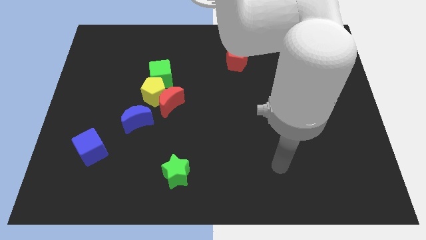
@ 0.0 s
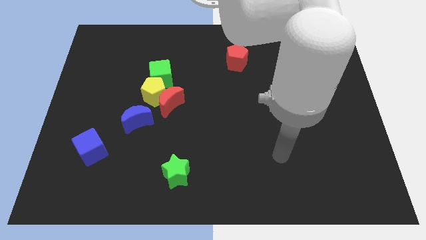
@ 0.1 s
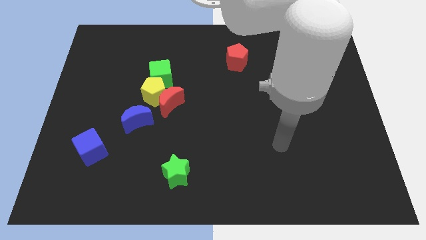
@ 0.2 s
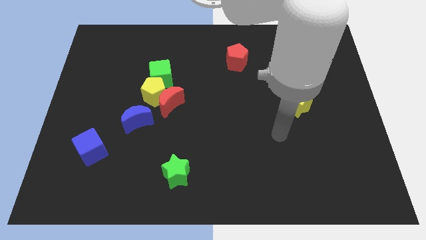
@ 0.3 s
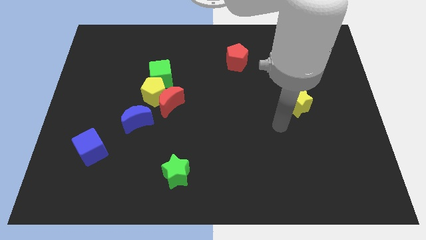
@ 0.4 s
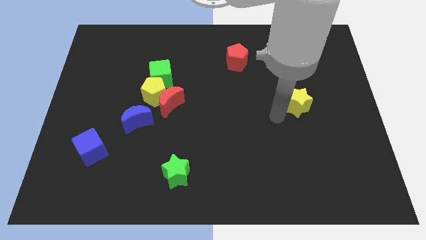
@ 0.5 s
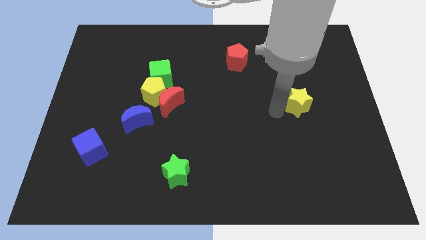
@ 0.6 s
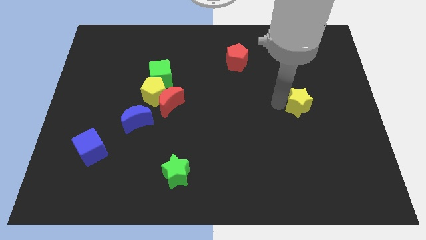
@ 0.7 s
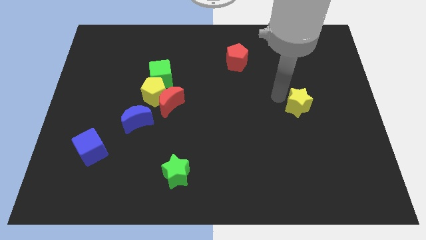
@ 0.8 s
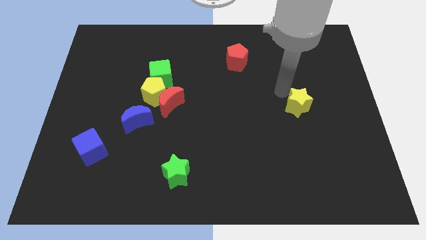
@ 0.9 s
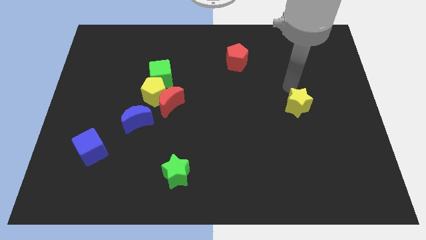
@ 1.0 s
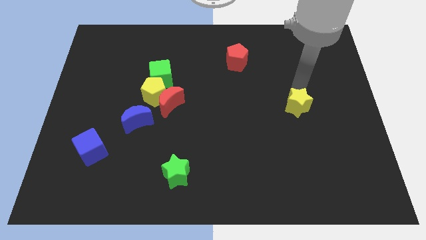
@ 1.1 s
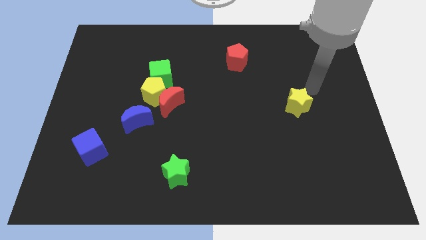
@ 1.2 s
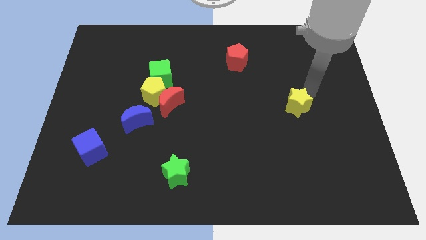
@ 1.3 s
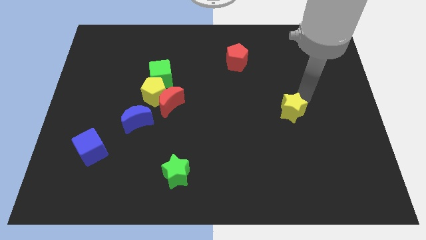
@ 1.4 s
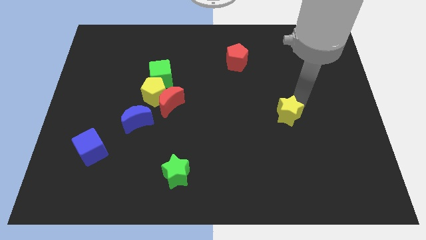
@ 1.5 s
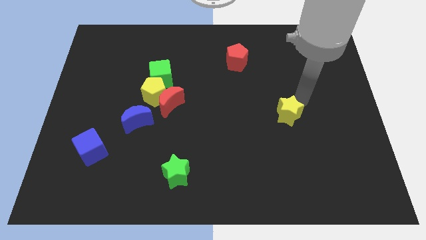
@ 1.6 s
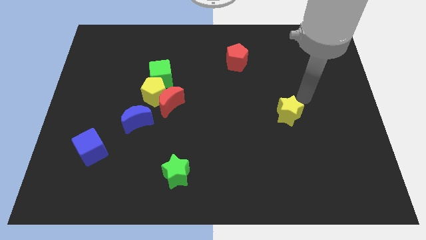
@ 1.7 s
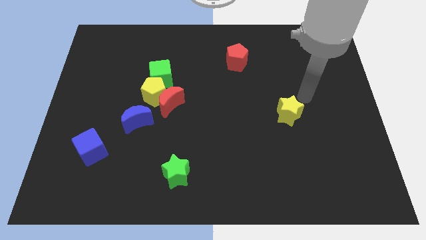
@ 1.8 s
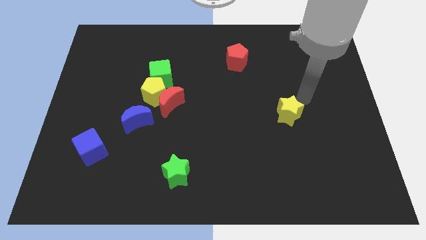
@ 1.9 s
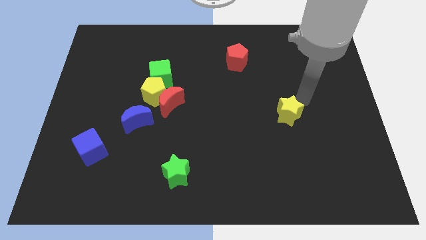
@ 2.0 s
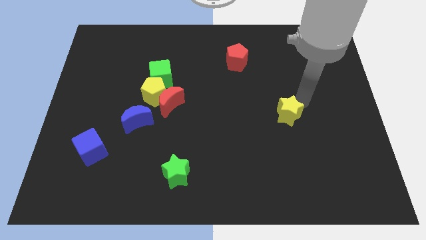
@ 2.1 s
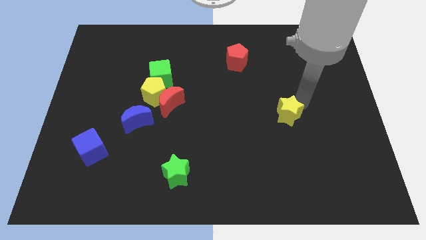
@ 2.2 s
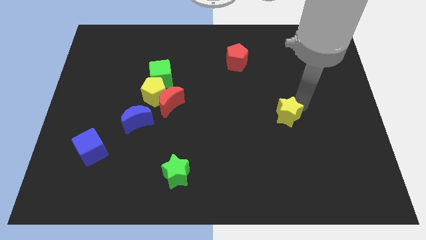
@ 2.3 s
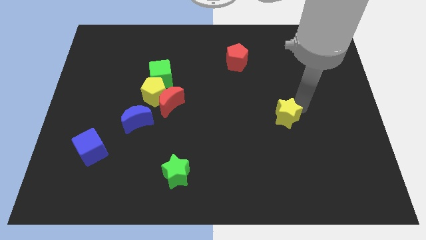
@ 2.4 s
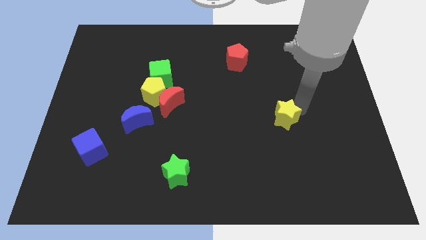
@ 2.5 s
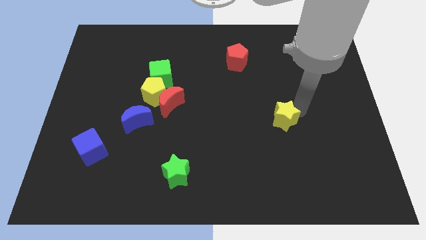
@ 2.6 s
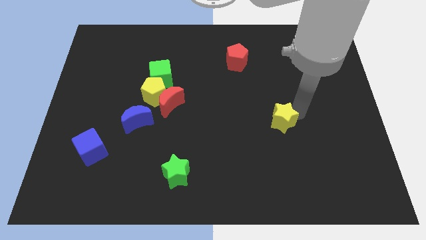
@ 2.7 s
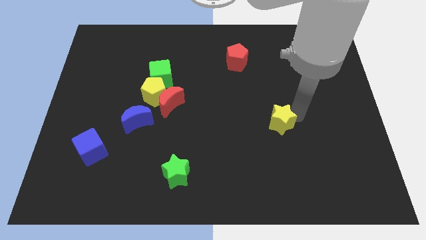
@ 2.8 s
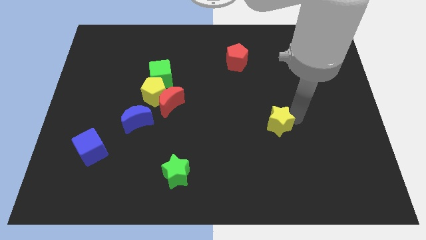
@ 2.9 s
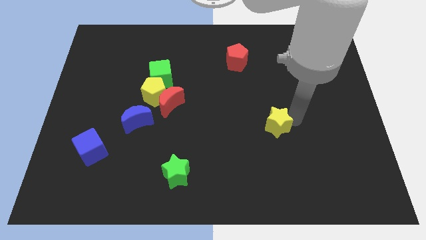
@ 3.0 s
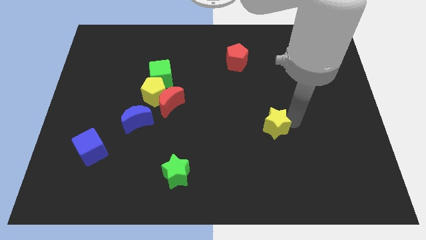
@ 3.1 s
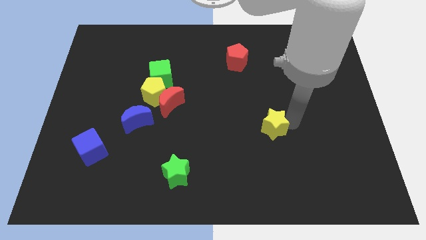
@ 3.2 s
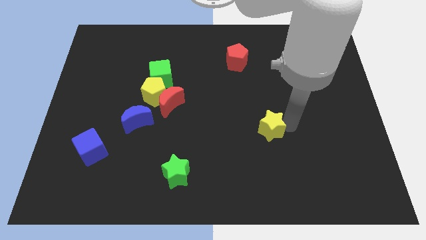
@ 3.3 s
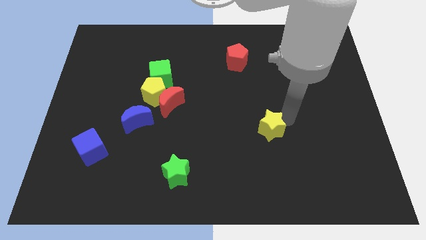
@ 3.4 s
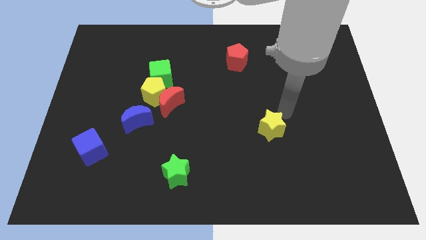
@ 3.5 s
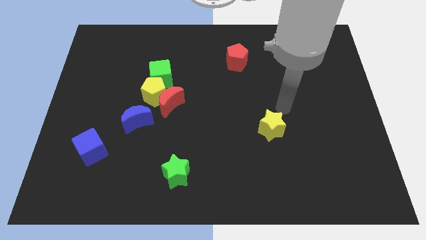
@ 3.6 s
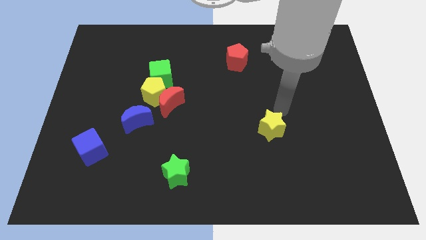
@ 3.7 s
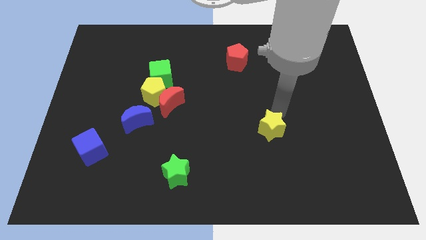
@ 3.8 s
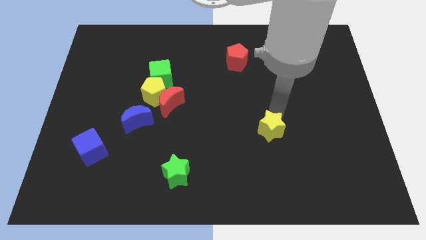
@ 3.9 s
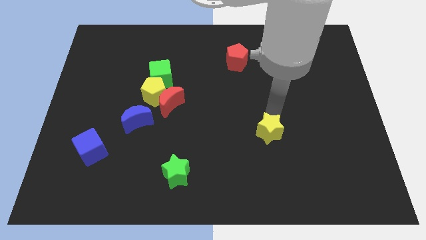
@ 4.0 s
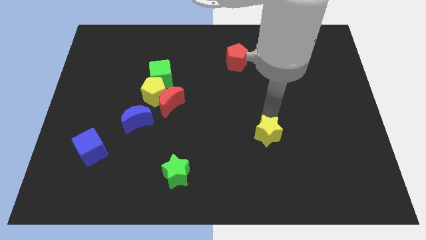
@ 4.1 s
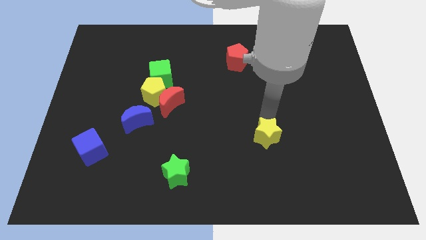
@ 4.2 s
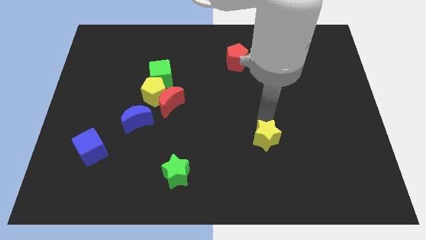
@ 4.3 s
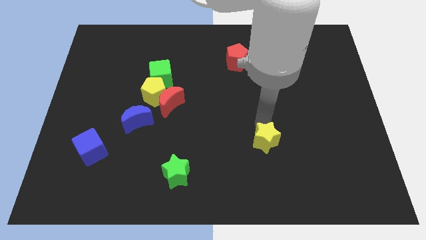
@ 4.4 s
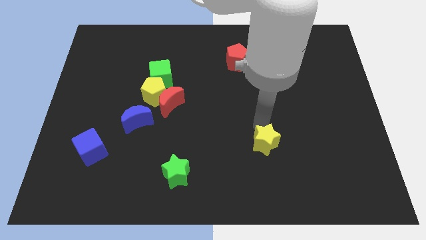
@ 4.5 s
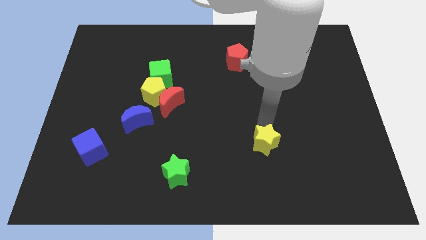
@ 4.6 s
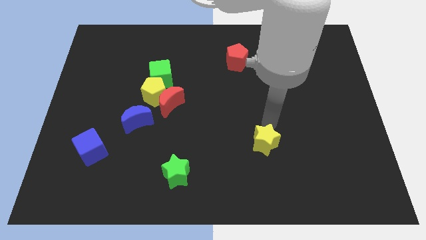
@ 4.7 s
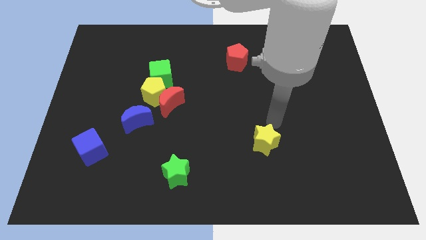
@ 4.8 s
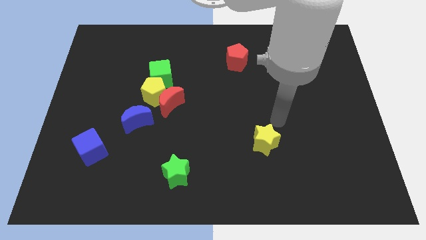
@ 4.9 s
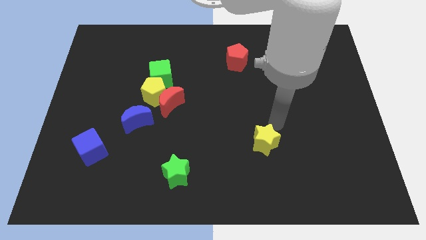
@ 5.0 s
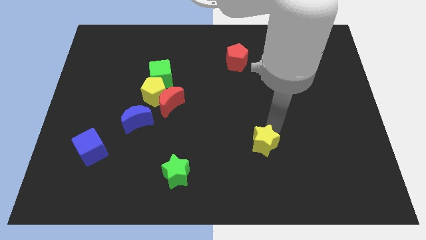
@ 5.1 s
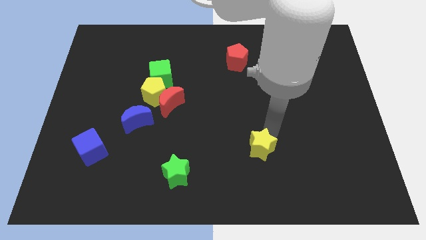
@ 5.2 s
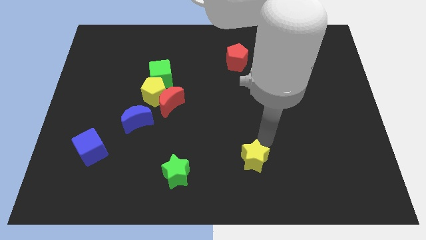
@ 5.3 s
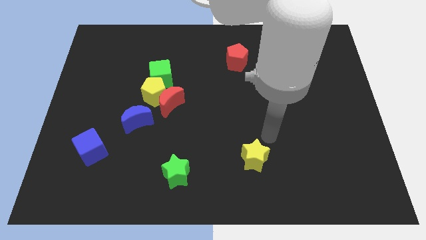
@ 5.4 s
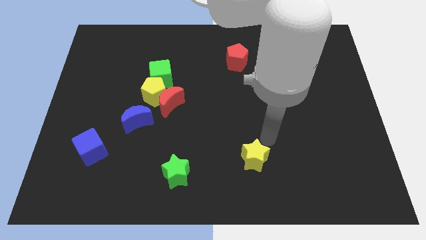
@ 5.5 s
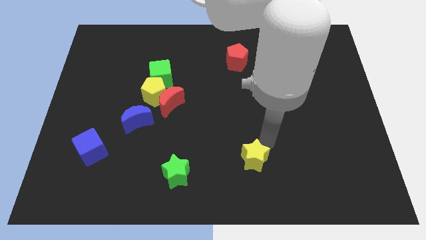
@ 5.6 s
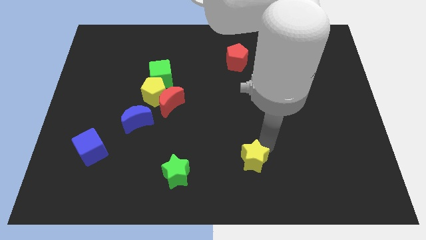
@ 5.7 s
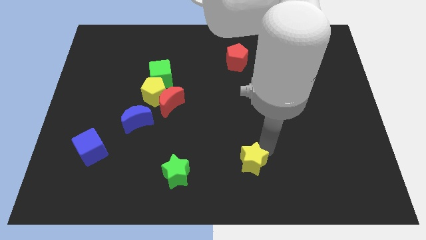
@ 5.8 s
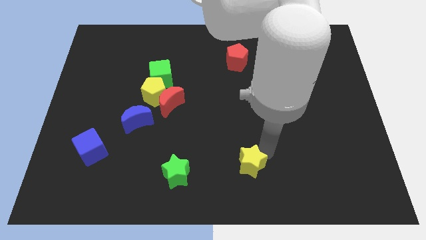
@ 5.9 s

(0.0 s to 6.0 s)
push the yellow star to the bottom

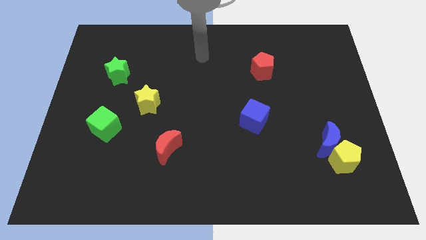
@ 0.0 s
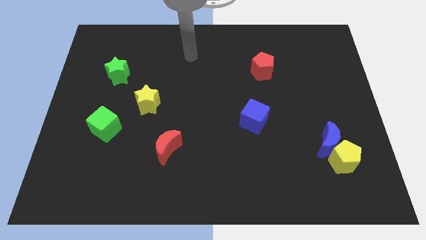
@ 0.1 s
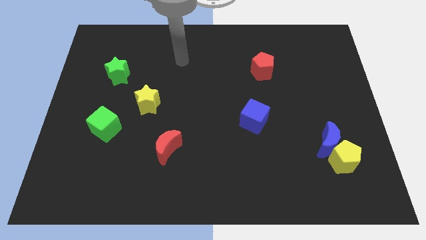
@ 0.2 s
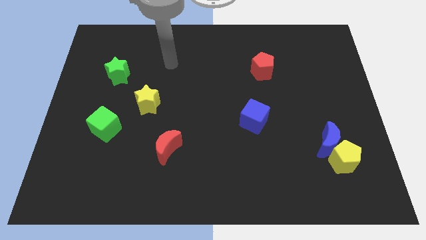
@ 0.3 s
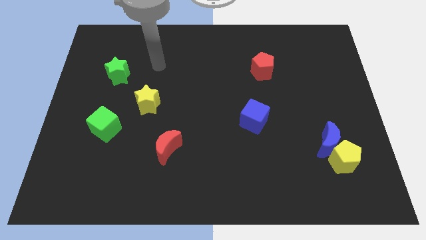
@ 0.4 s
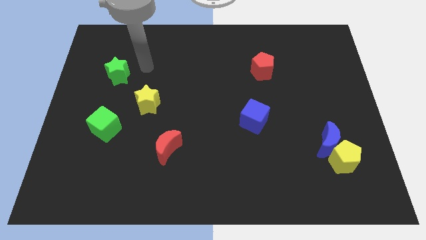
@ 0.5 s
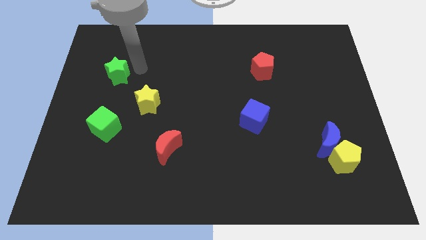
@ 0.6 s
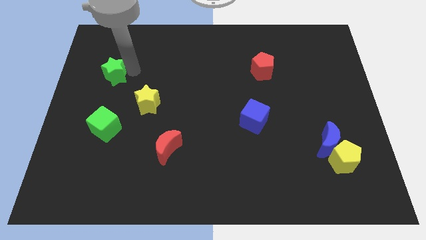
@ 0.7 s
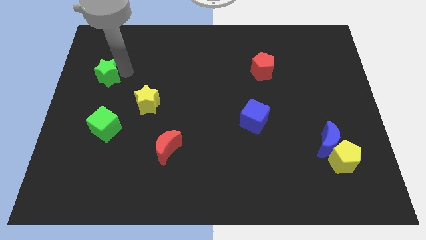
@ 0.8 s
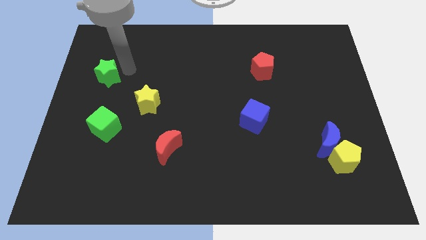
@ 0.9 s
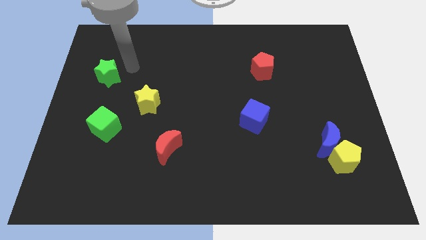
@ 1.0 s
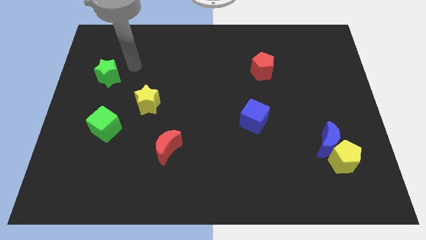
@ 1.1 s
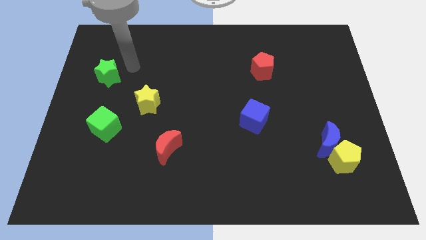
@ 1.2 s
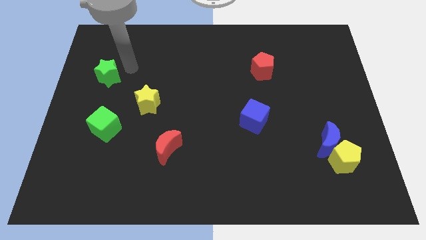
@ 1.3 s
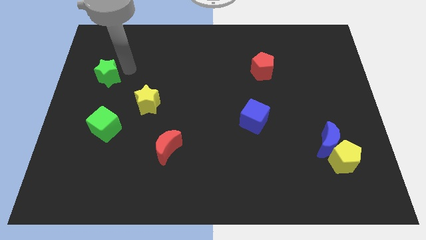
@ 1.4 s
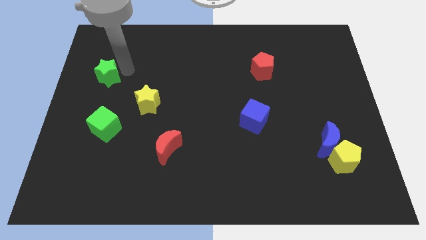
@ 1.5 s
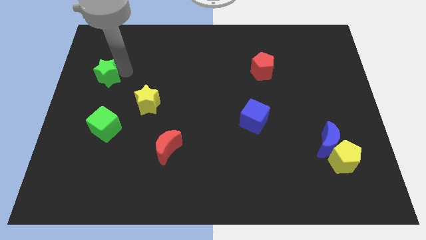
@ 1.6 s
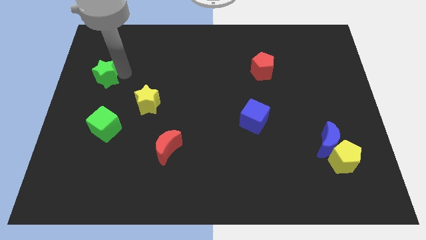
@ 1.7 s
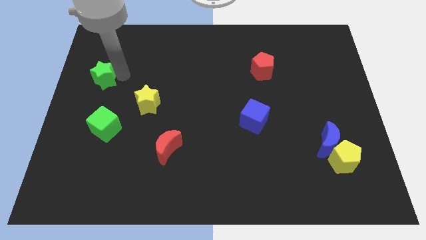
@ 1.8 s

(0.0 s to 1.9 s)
move the green star to the left side of the board
